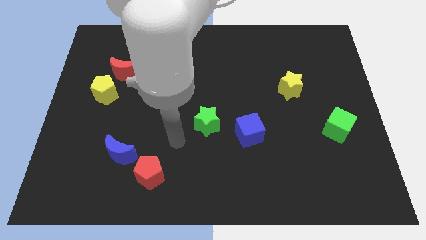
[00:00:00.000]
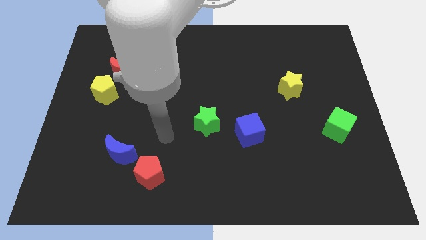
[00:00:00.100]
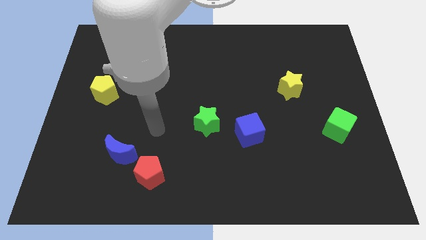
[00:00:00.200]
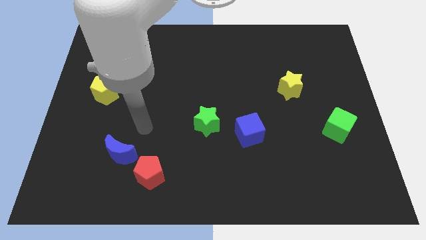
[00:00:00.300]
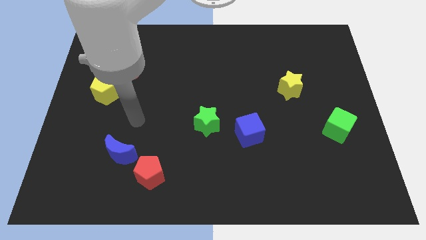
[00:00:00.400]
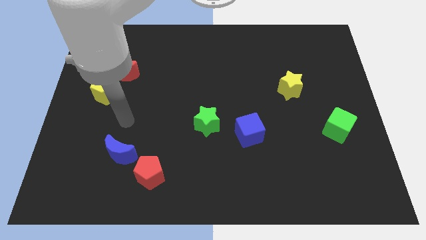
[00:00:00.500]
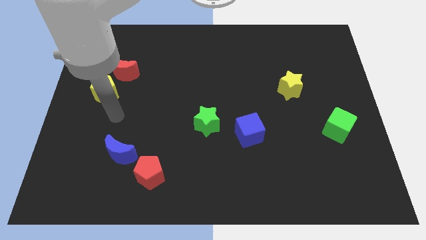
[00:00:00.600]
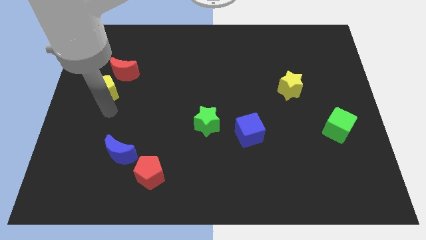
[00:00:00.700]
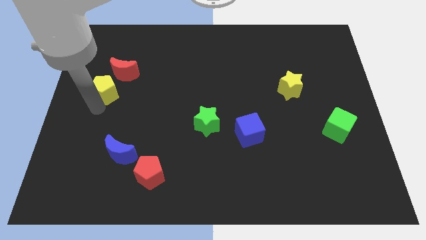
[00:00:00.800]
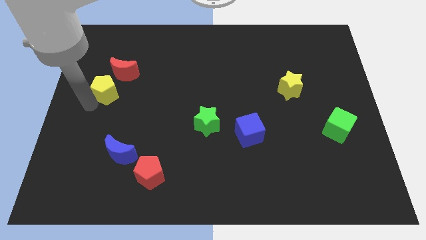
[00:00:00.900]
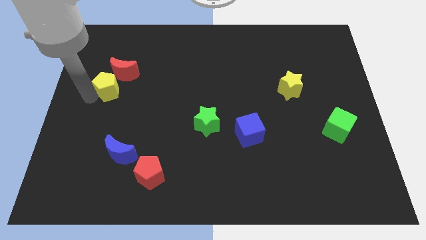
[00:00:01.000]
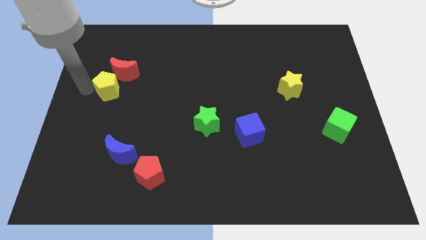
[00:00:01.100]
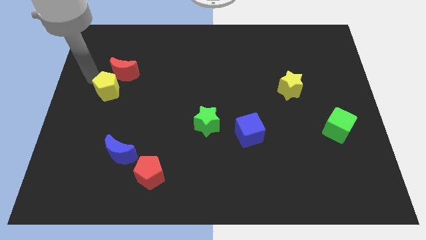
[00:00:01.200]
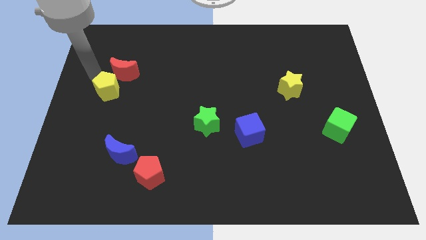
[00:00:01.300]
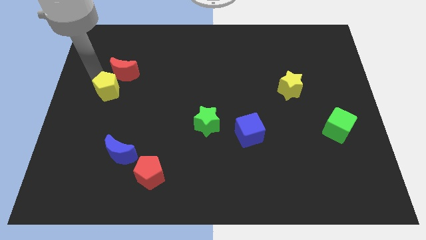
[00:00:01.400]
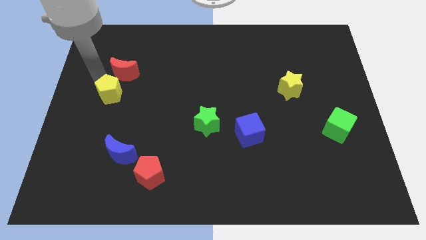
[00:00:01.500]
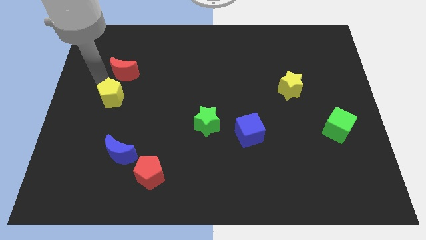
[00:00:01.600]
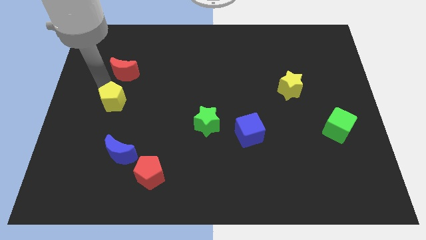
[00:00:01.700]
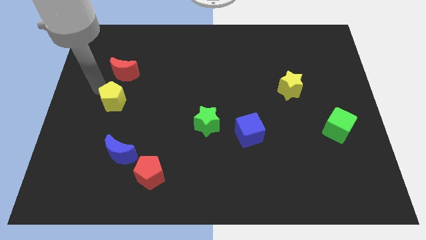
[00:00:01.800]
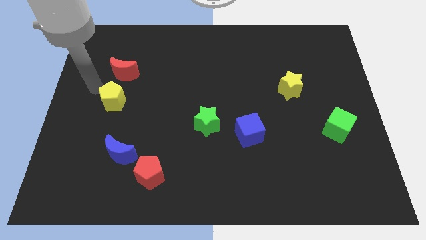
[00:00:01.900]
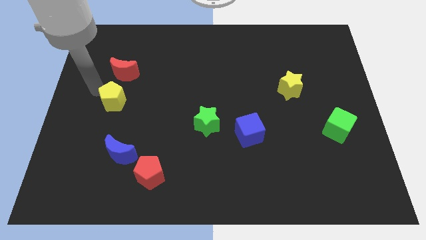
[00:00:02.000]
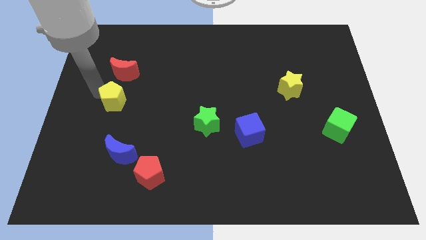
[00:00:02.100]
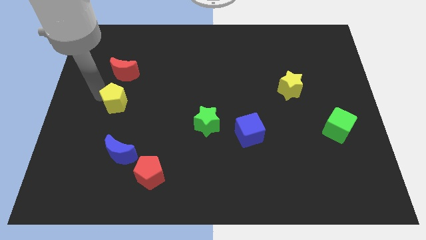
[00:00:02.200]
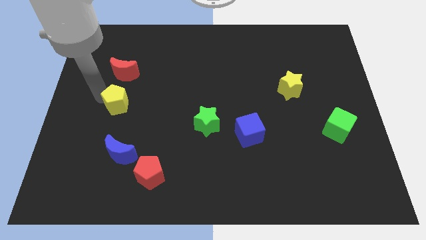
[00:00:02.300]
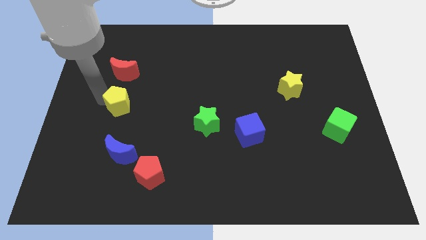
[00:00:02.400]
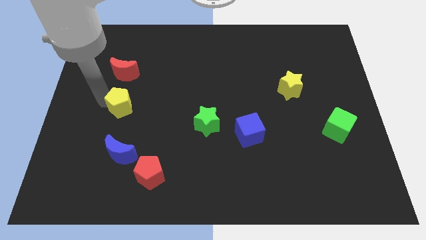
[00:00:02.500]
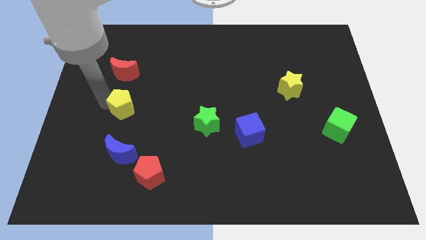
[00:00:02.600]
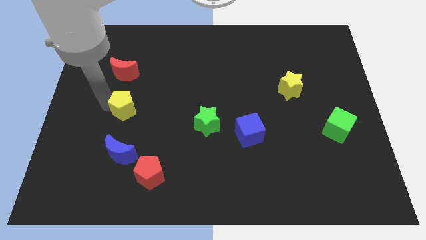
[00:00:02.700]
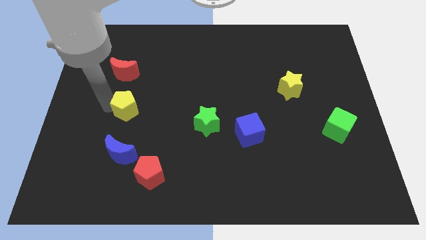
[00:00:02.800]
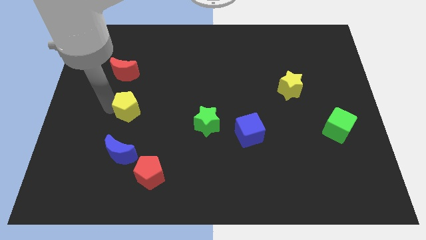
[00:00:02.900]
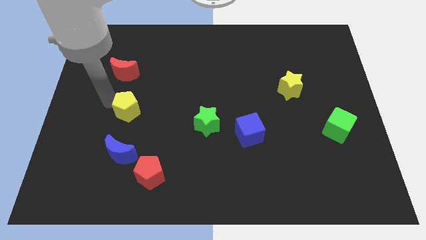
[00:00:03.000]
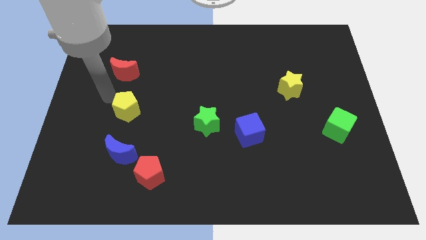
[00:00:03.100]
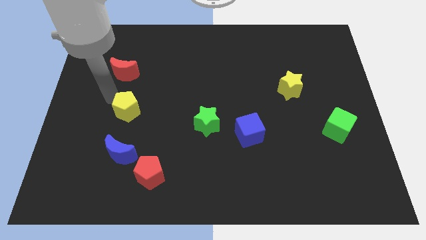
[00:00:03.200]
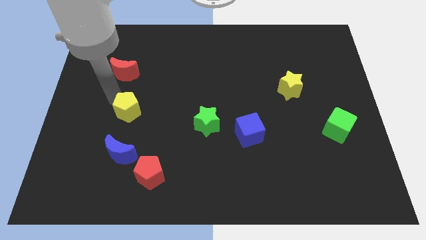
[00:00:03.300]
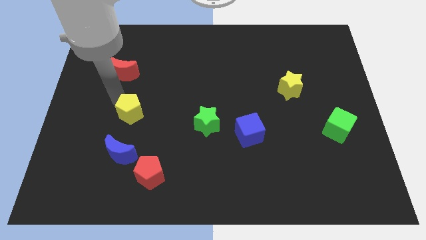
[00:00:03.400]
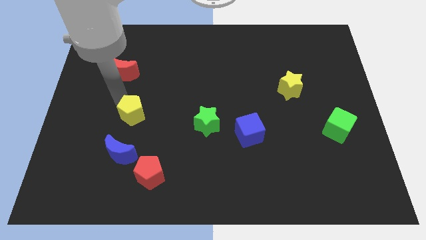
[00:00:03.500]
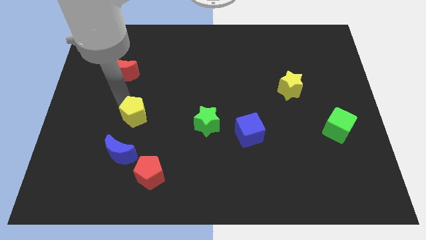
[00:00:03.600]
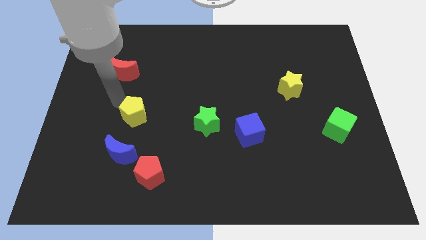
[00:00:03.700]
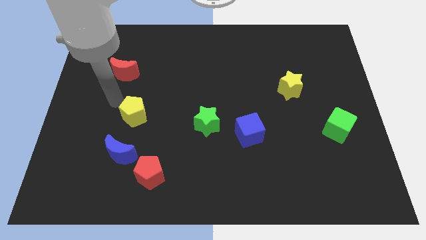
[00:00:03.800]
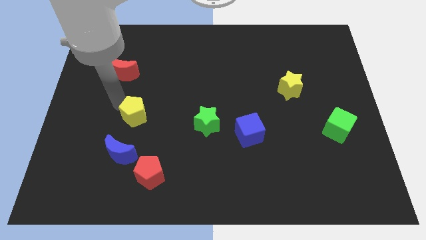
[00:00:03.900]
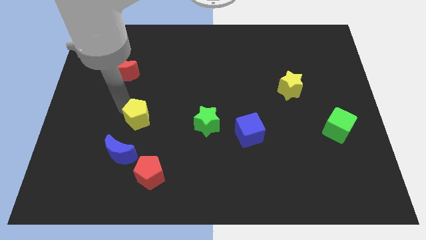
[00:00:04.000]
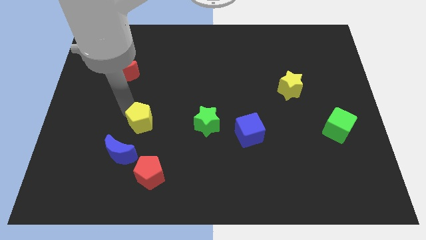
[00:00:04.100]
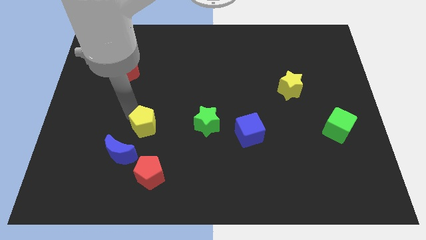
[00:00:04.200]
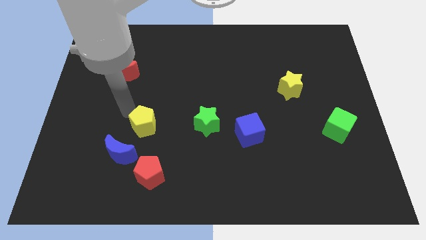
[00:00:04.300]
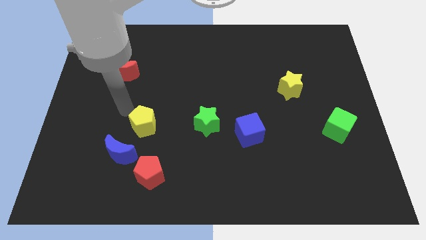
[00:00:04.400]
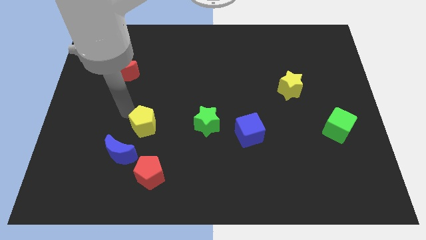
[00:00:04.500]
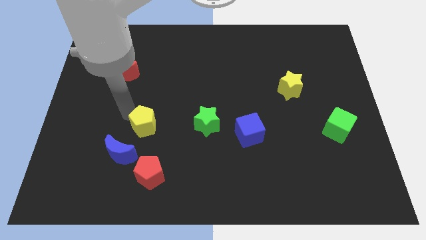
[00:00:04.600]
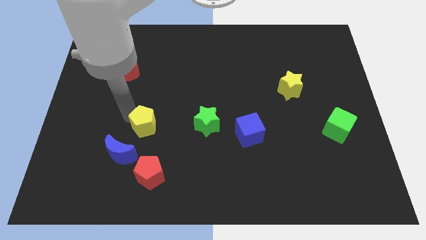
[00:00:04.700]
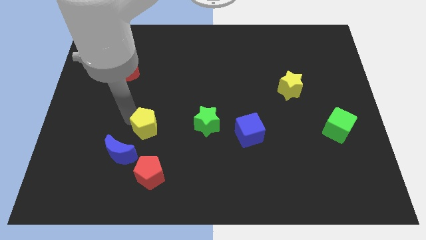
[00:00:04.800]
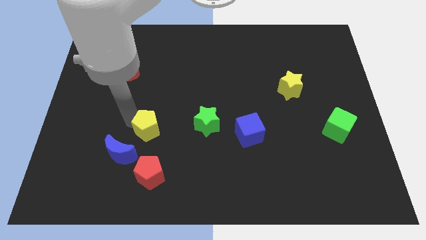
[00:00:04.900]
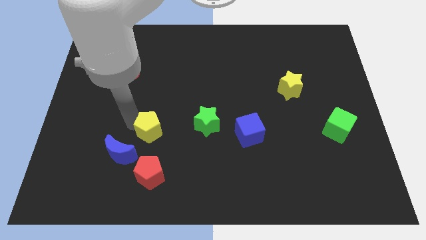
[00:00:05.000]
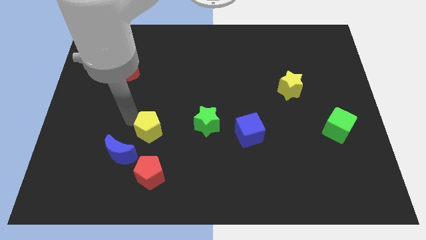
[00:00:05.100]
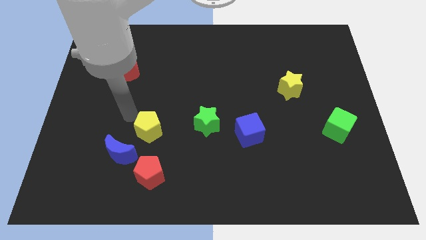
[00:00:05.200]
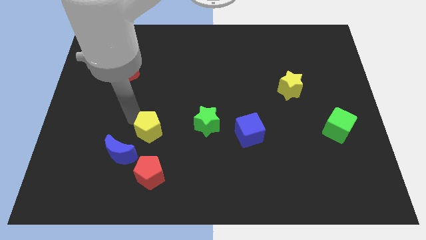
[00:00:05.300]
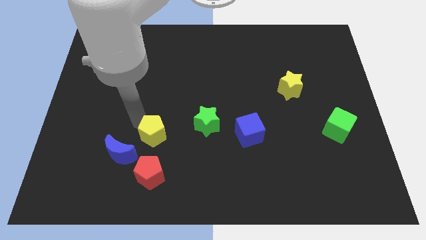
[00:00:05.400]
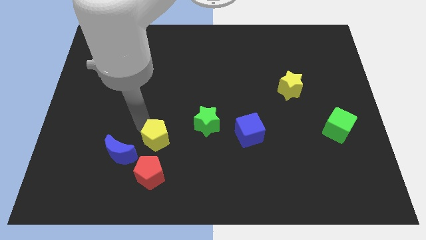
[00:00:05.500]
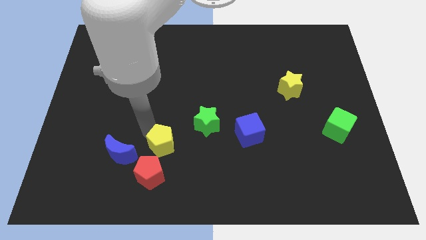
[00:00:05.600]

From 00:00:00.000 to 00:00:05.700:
push the yellow pentagon downwards and right diagonally

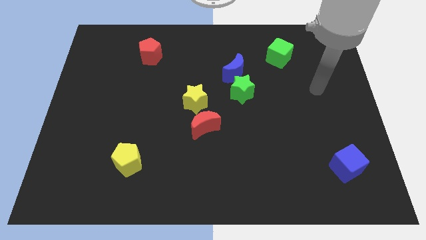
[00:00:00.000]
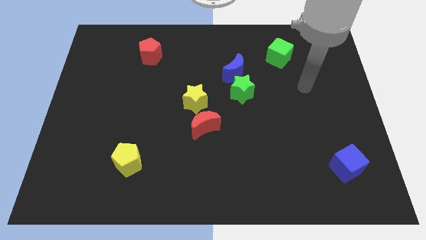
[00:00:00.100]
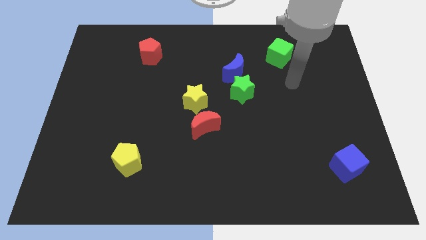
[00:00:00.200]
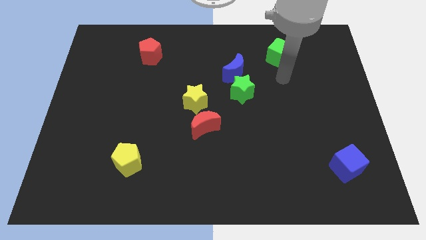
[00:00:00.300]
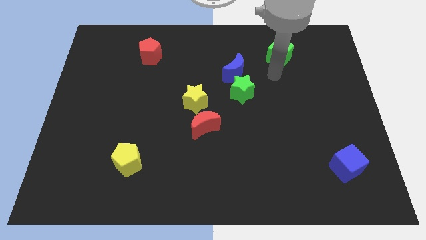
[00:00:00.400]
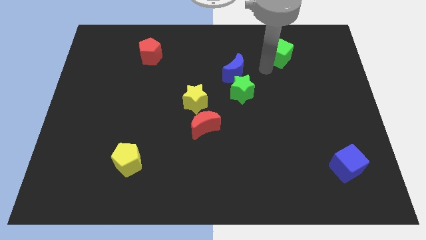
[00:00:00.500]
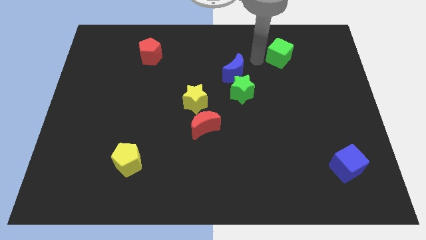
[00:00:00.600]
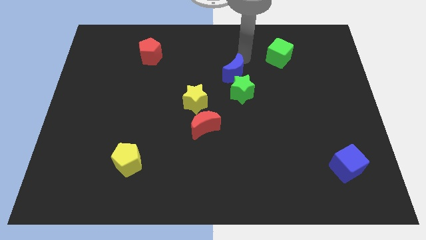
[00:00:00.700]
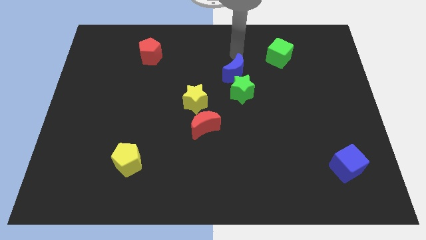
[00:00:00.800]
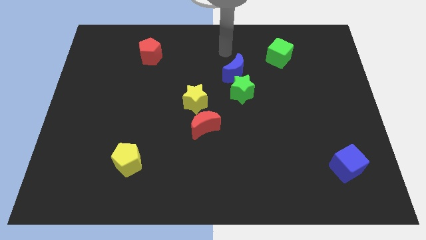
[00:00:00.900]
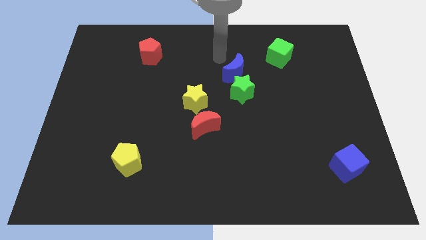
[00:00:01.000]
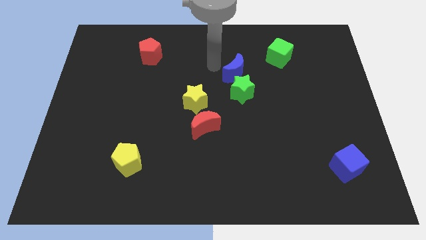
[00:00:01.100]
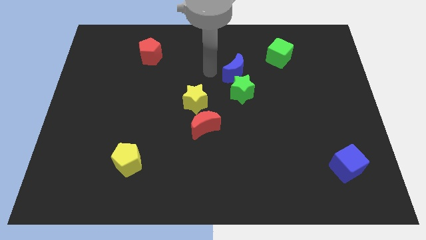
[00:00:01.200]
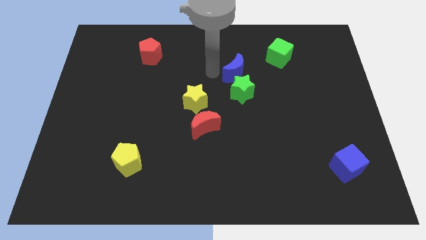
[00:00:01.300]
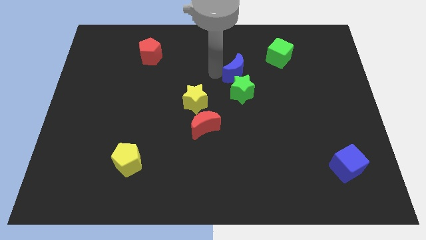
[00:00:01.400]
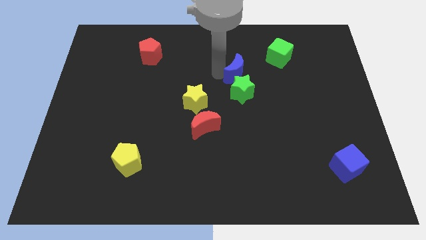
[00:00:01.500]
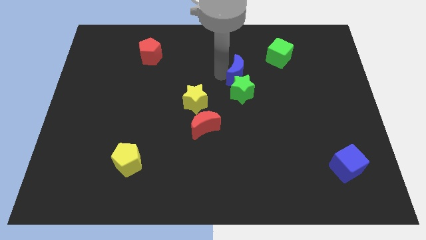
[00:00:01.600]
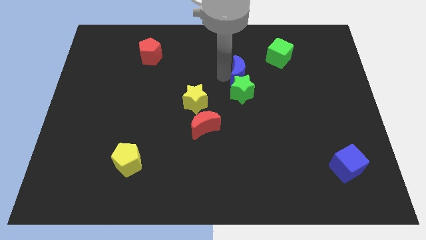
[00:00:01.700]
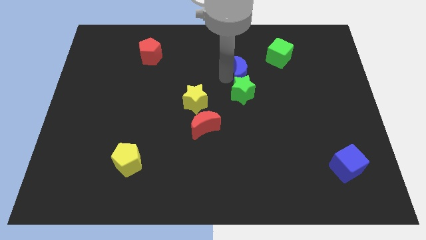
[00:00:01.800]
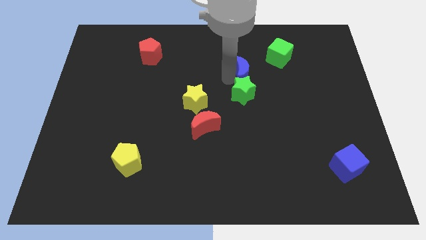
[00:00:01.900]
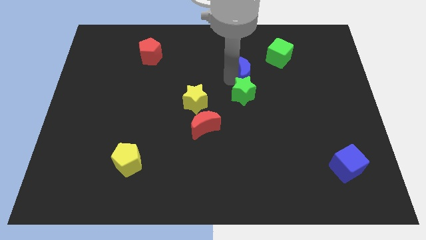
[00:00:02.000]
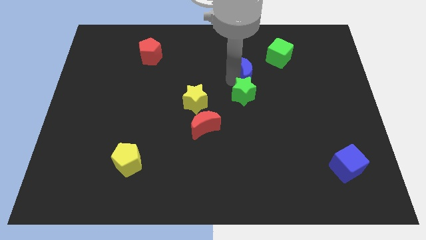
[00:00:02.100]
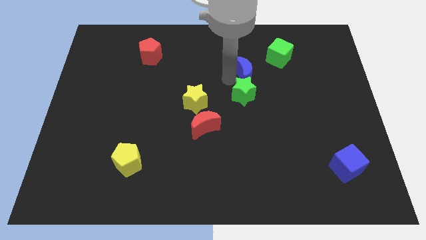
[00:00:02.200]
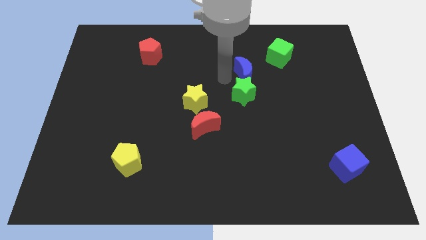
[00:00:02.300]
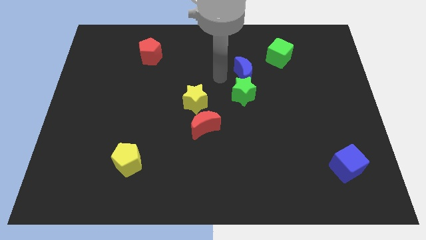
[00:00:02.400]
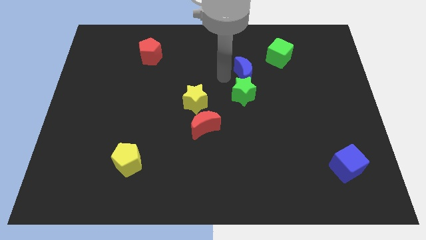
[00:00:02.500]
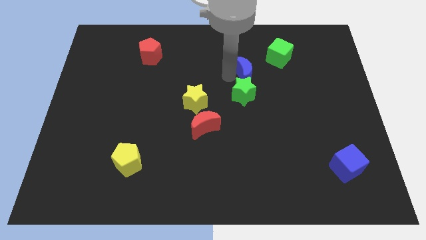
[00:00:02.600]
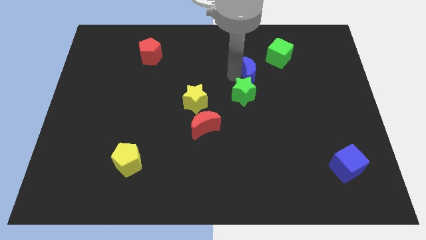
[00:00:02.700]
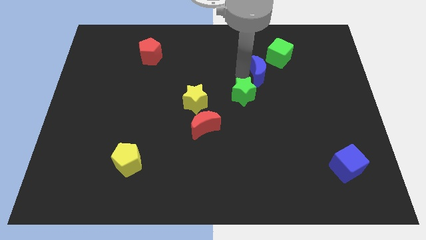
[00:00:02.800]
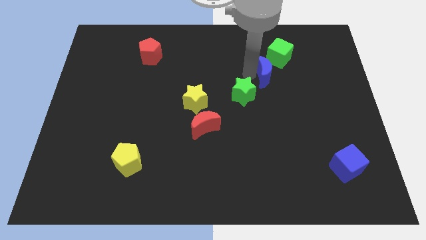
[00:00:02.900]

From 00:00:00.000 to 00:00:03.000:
slightly slide the blue moon to the right
